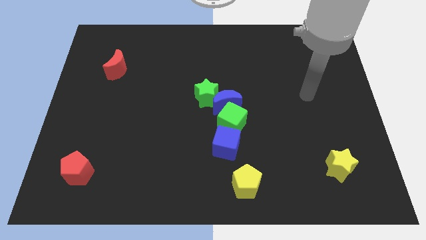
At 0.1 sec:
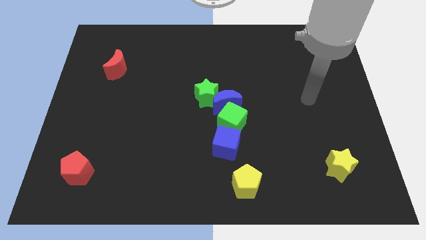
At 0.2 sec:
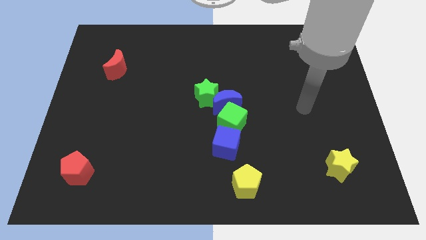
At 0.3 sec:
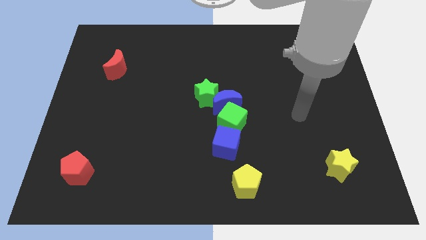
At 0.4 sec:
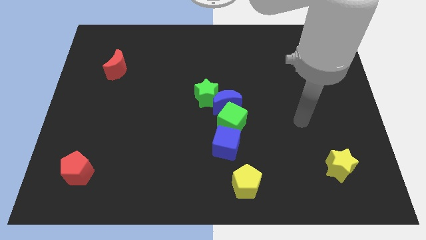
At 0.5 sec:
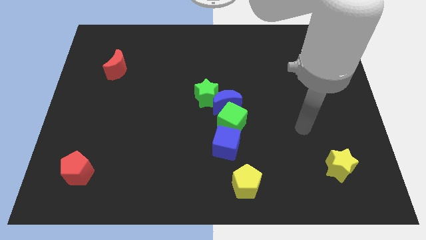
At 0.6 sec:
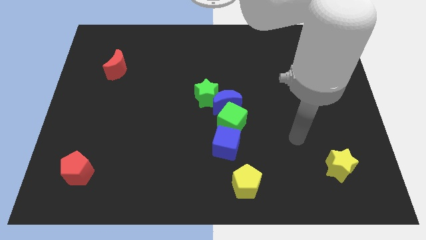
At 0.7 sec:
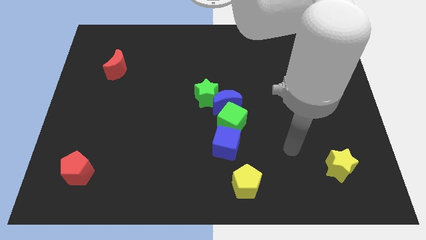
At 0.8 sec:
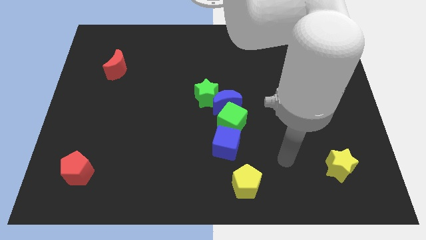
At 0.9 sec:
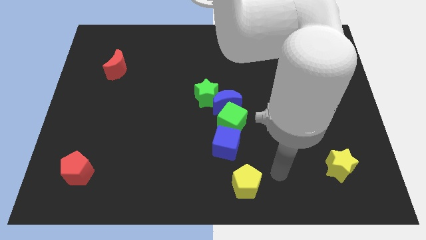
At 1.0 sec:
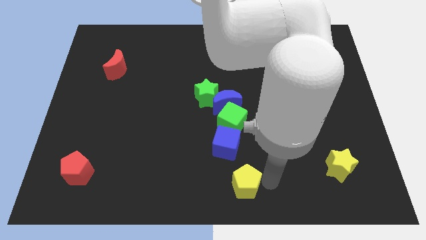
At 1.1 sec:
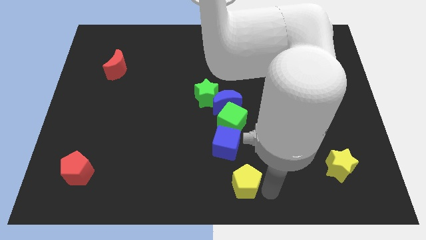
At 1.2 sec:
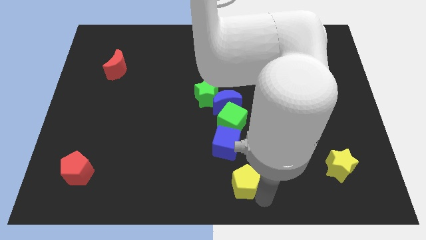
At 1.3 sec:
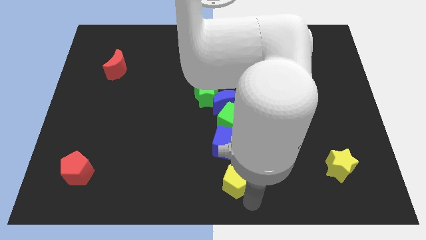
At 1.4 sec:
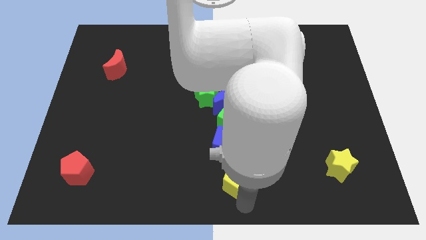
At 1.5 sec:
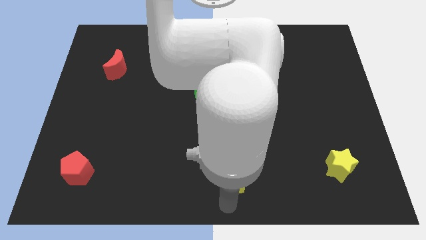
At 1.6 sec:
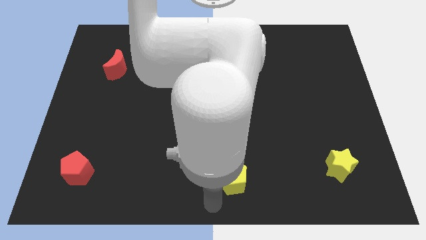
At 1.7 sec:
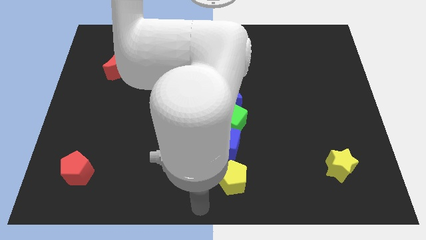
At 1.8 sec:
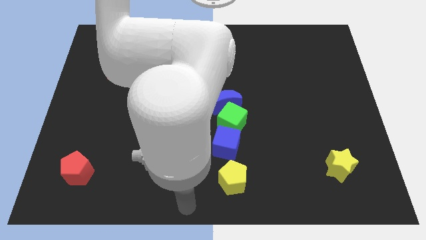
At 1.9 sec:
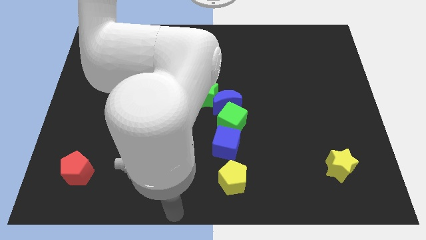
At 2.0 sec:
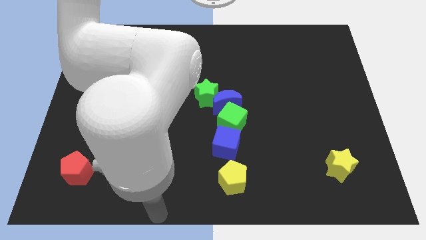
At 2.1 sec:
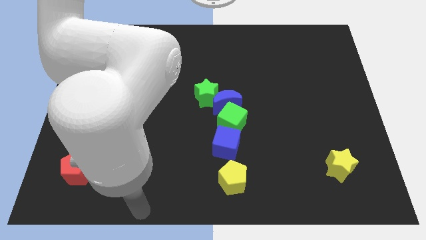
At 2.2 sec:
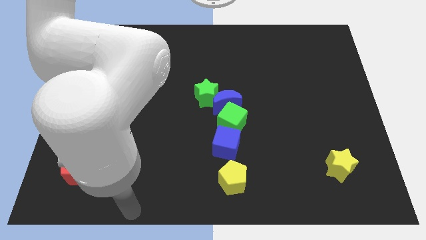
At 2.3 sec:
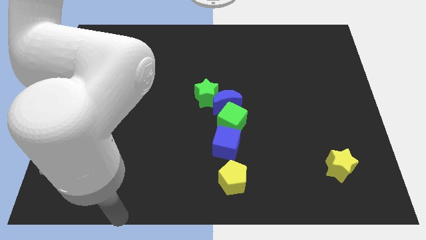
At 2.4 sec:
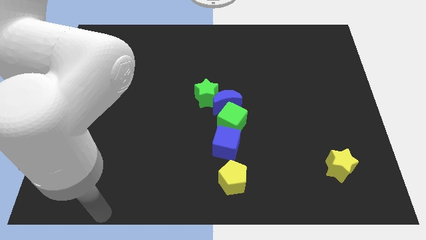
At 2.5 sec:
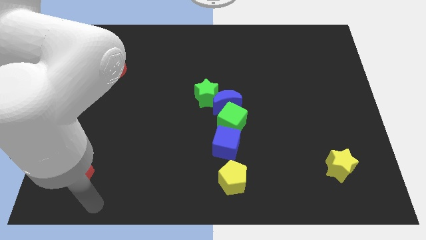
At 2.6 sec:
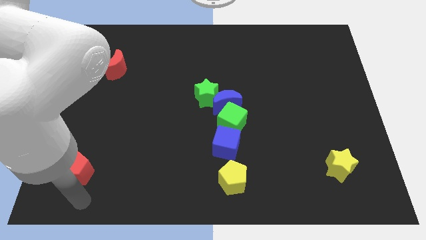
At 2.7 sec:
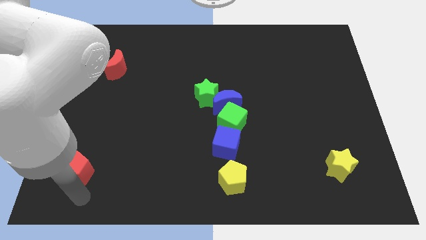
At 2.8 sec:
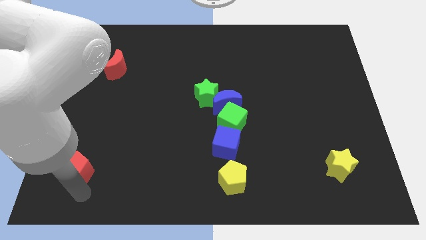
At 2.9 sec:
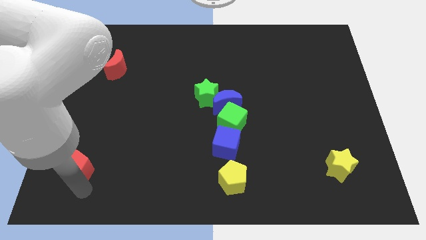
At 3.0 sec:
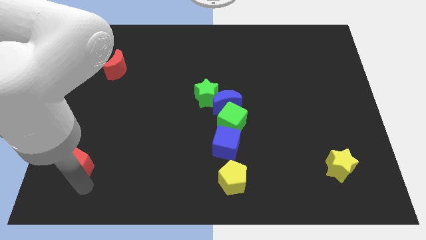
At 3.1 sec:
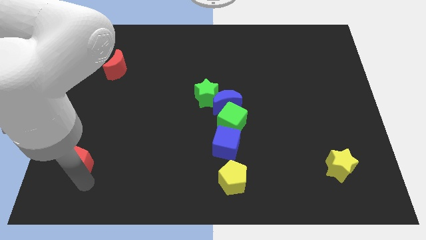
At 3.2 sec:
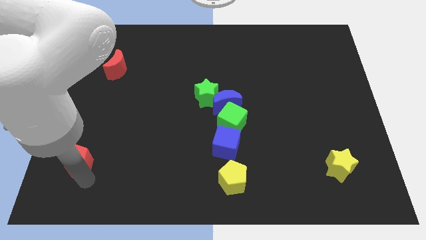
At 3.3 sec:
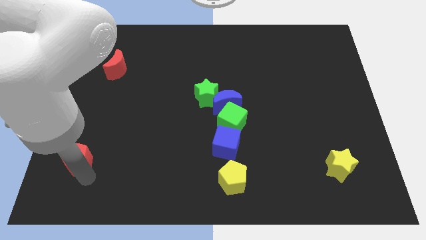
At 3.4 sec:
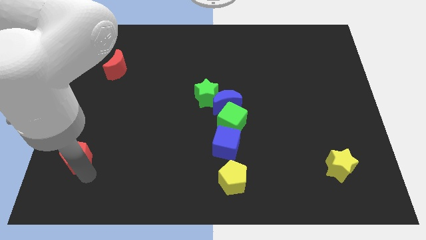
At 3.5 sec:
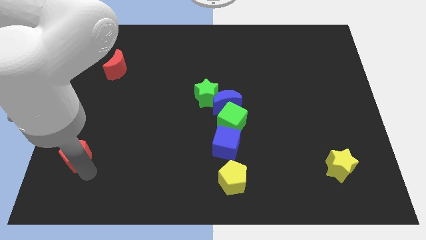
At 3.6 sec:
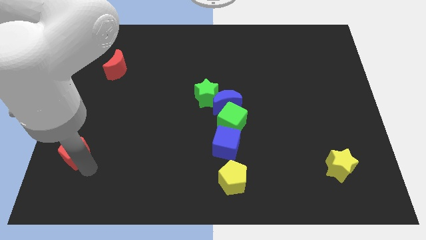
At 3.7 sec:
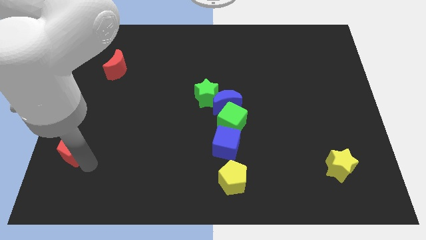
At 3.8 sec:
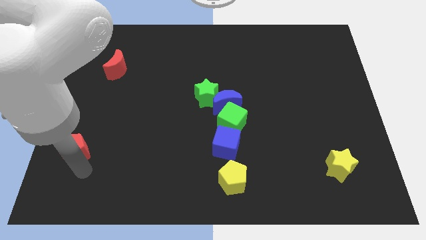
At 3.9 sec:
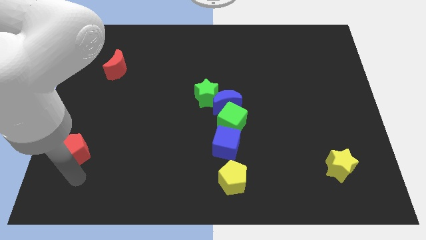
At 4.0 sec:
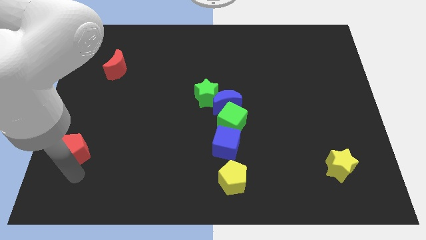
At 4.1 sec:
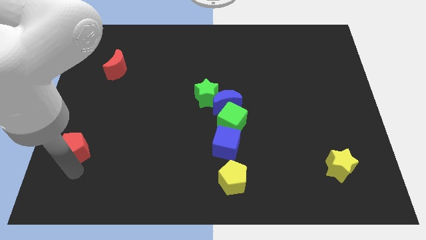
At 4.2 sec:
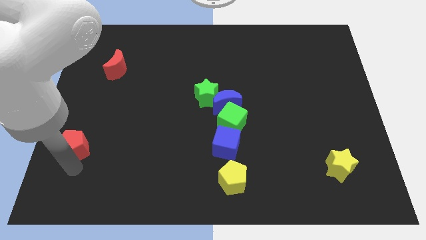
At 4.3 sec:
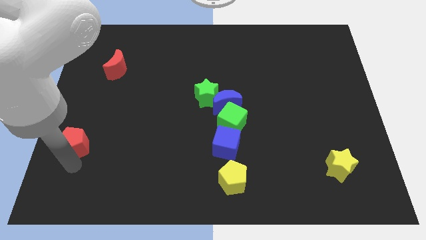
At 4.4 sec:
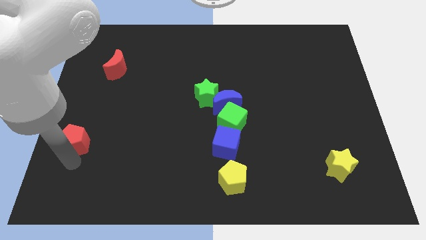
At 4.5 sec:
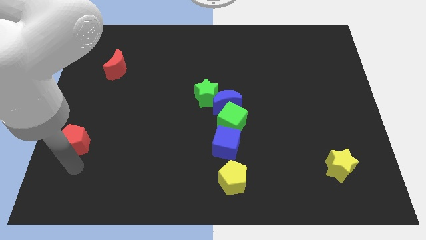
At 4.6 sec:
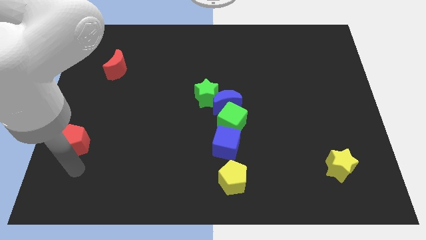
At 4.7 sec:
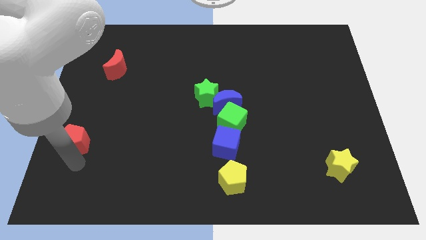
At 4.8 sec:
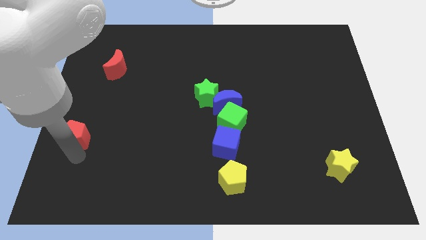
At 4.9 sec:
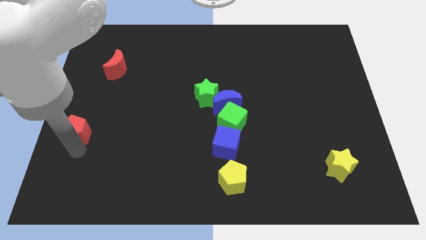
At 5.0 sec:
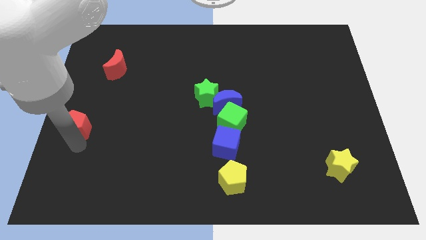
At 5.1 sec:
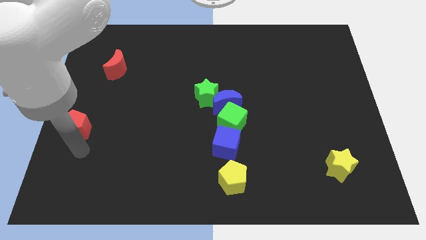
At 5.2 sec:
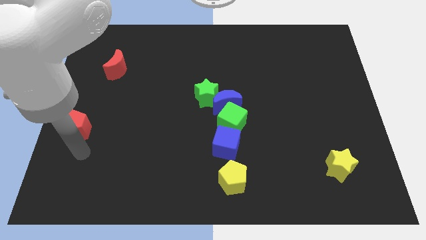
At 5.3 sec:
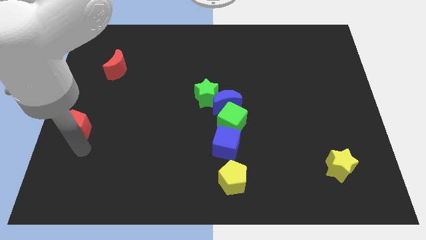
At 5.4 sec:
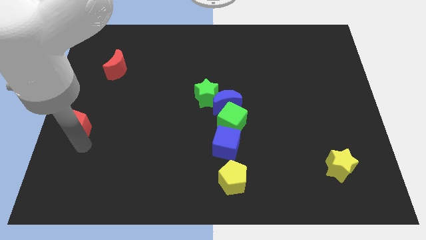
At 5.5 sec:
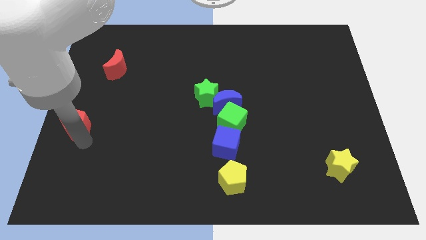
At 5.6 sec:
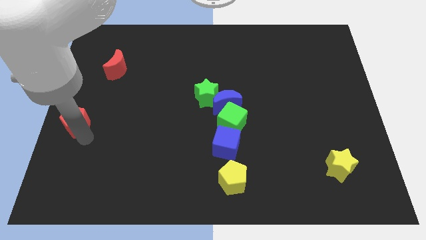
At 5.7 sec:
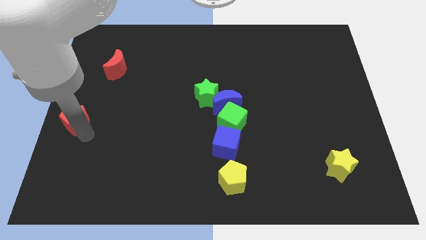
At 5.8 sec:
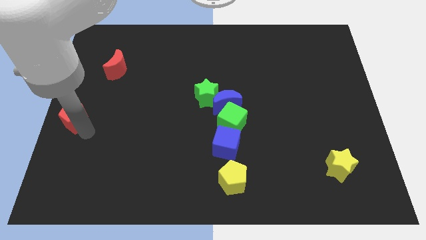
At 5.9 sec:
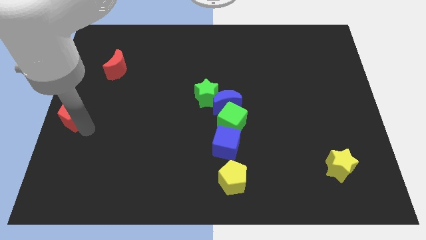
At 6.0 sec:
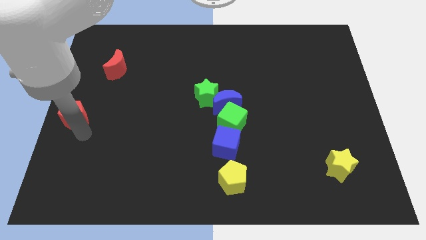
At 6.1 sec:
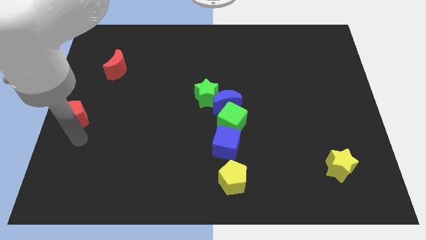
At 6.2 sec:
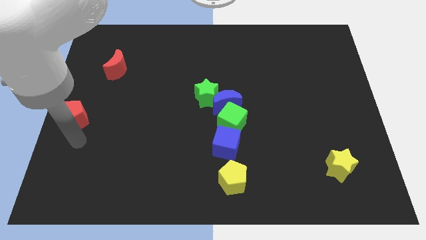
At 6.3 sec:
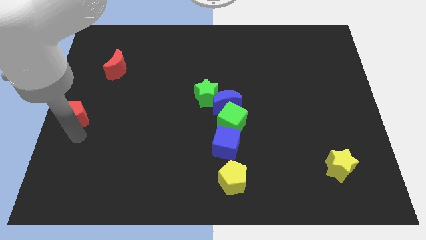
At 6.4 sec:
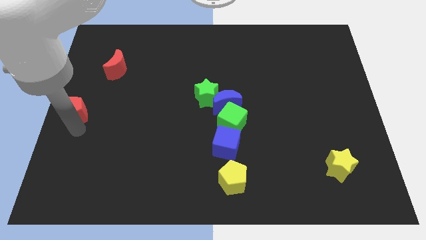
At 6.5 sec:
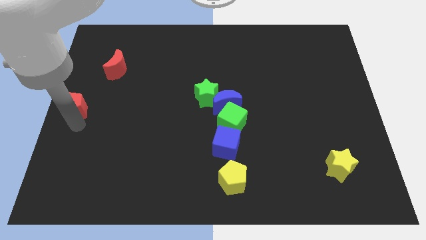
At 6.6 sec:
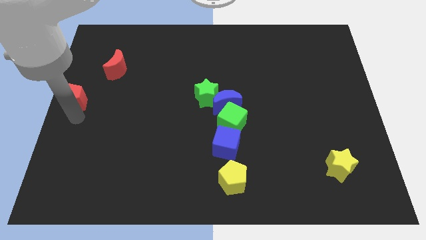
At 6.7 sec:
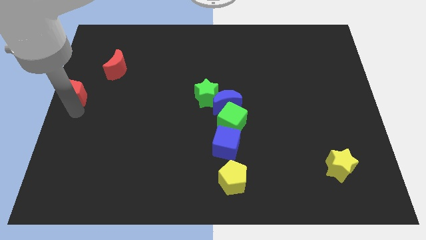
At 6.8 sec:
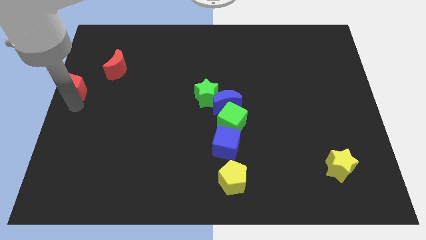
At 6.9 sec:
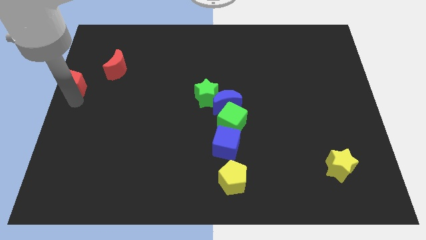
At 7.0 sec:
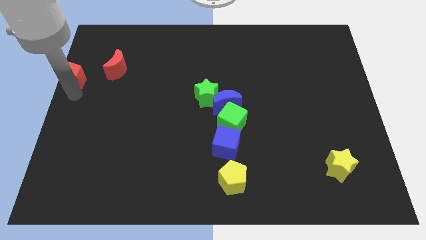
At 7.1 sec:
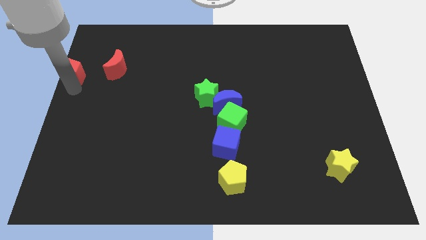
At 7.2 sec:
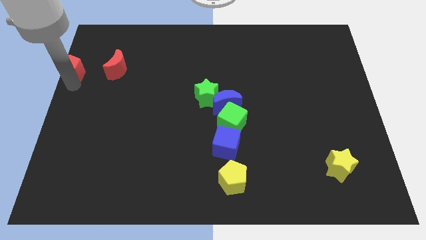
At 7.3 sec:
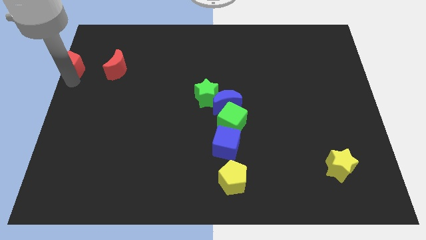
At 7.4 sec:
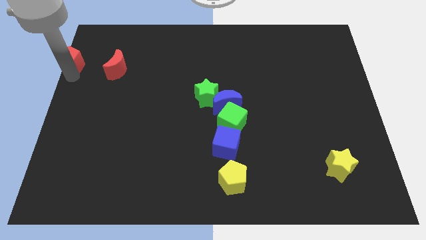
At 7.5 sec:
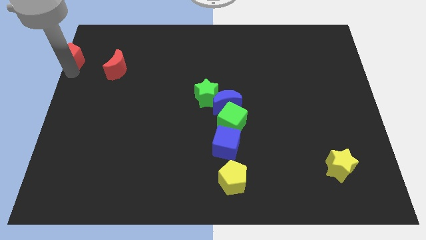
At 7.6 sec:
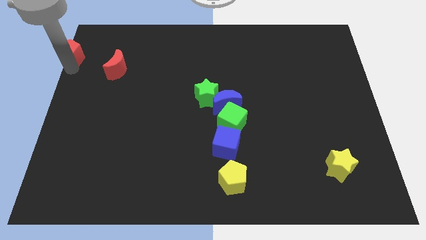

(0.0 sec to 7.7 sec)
move the red pentagon to the top left corner

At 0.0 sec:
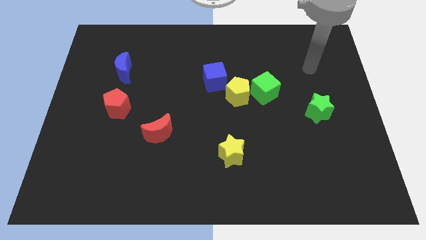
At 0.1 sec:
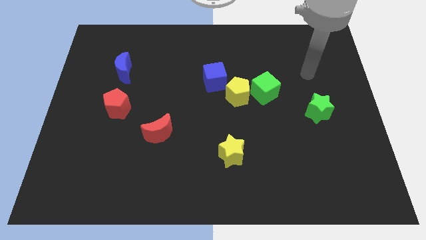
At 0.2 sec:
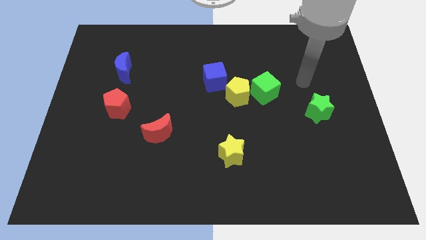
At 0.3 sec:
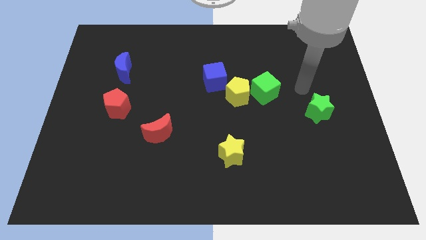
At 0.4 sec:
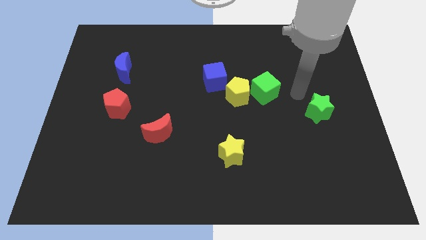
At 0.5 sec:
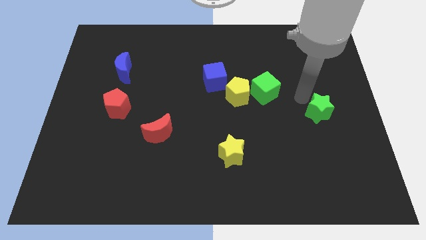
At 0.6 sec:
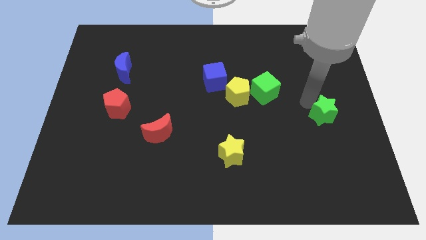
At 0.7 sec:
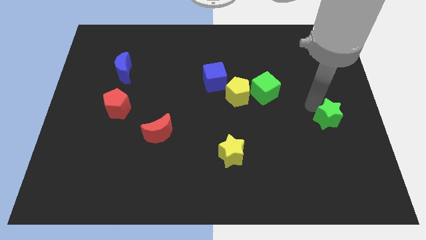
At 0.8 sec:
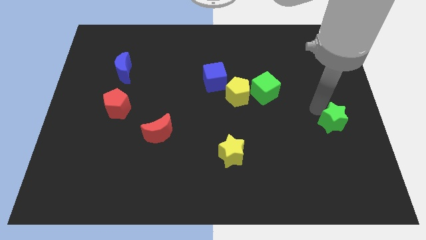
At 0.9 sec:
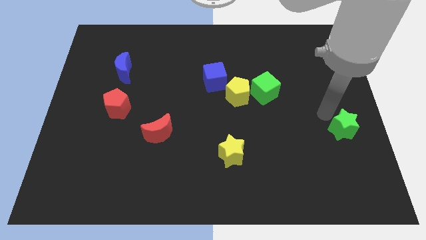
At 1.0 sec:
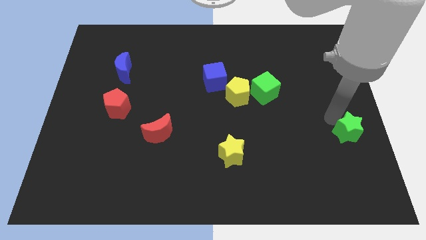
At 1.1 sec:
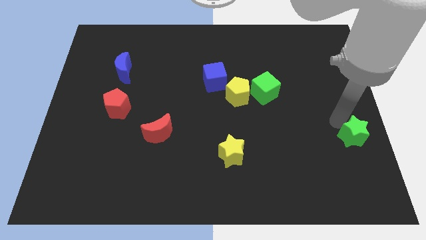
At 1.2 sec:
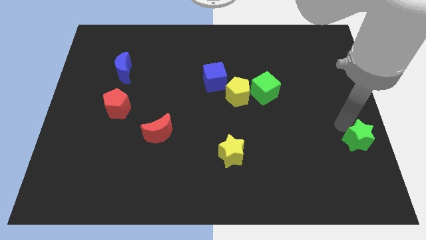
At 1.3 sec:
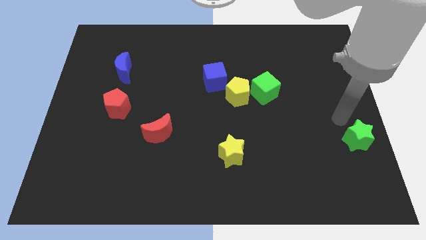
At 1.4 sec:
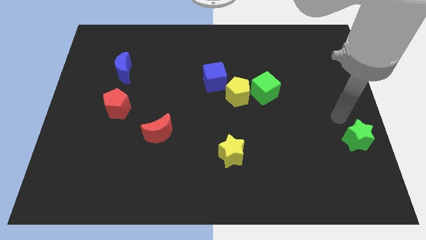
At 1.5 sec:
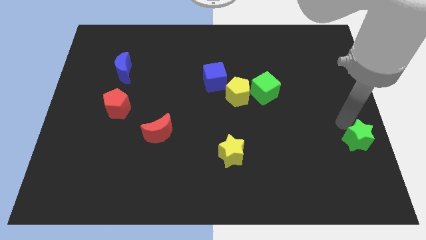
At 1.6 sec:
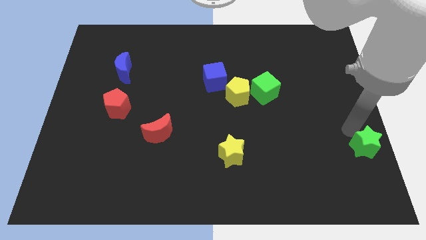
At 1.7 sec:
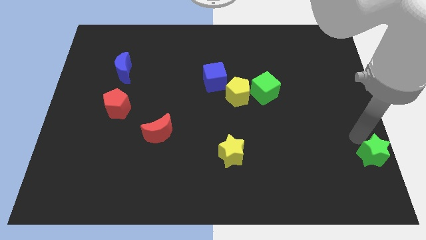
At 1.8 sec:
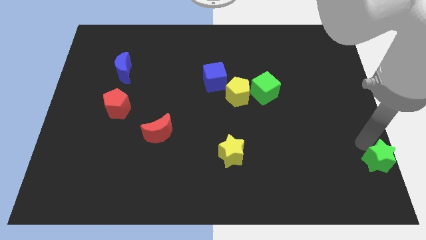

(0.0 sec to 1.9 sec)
slide the green star to the bottom right corner
